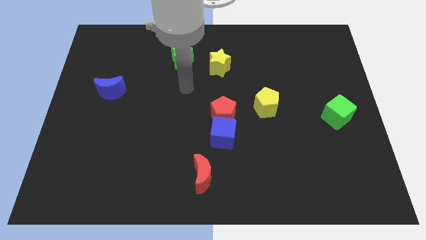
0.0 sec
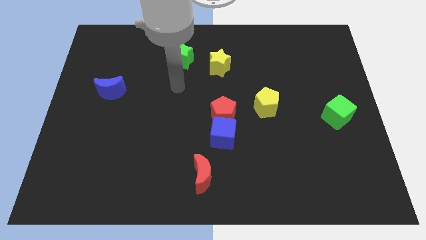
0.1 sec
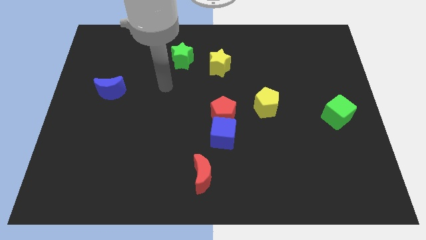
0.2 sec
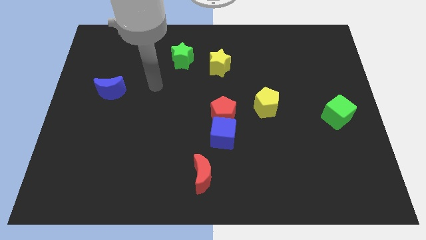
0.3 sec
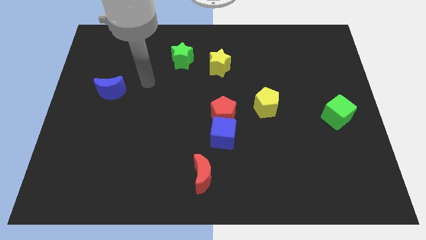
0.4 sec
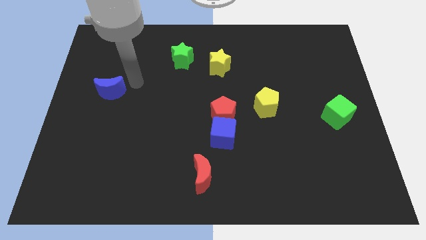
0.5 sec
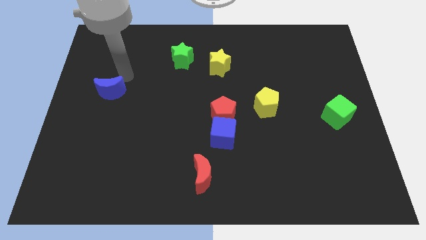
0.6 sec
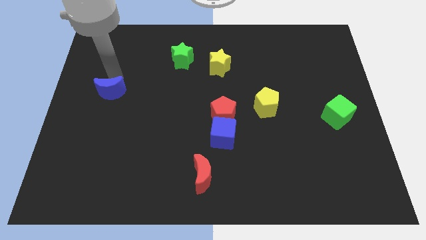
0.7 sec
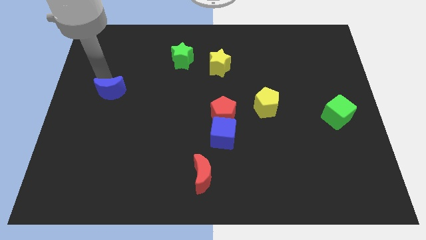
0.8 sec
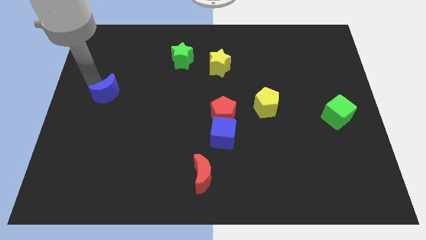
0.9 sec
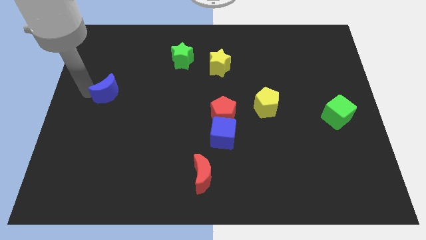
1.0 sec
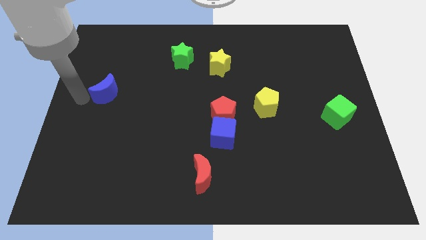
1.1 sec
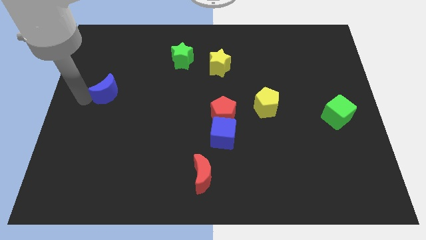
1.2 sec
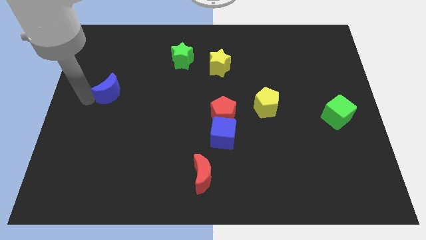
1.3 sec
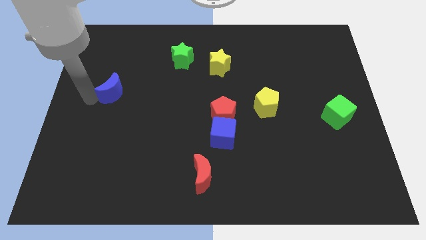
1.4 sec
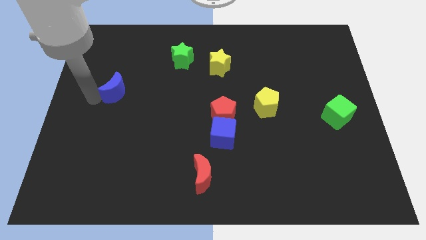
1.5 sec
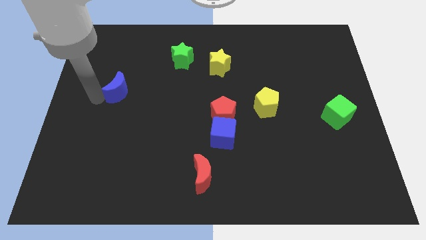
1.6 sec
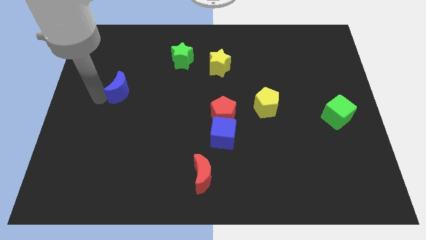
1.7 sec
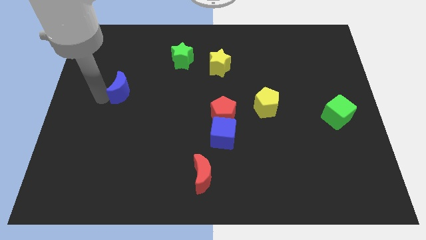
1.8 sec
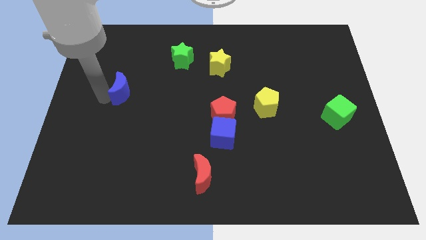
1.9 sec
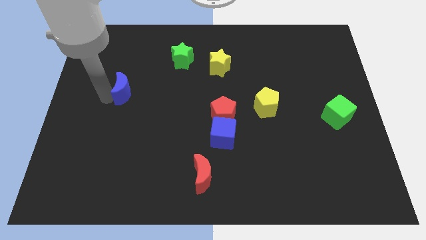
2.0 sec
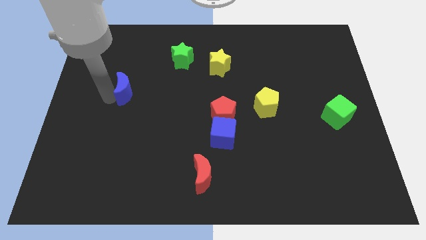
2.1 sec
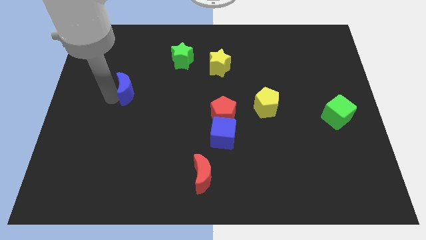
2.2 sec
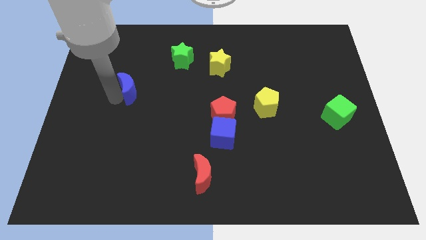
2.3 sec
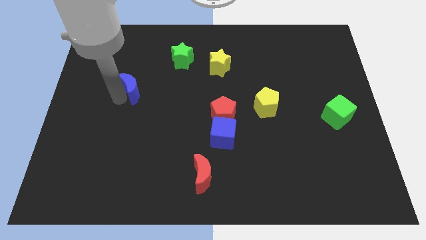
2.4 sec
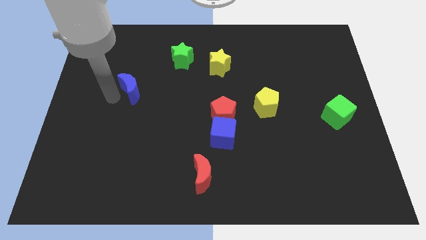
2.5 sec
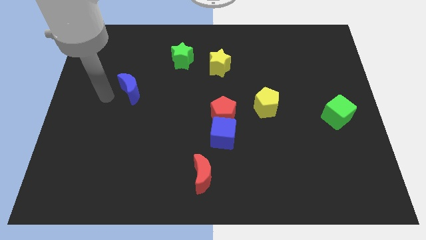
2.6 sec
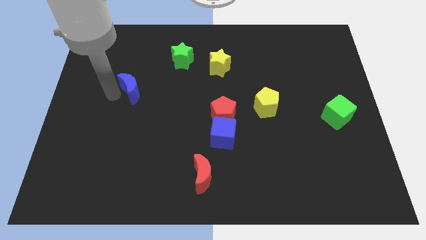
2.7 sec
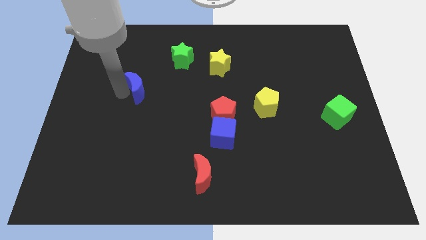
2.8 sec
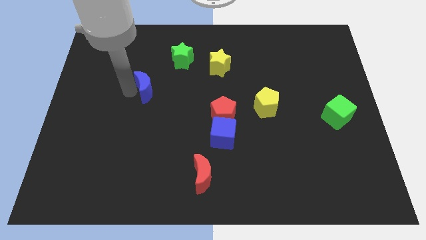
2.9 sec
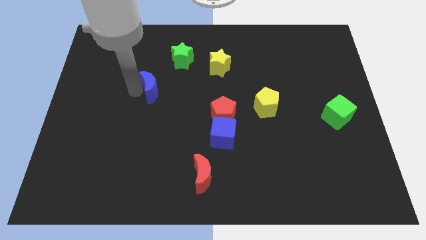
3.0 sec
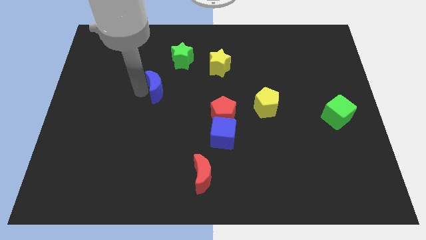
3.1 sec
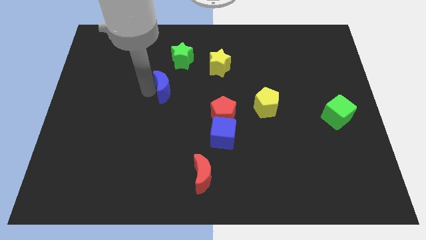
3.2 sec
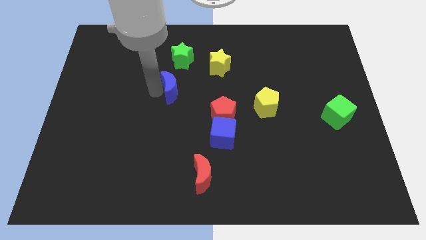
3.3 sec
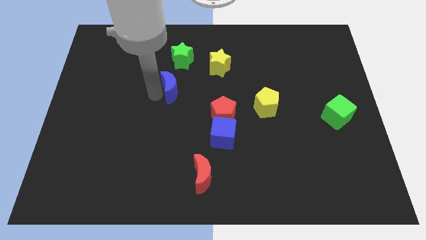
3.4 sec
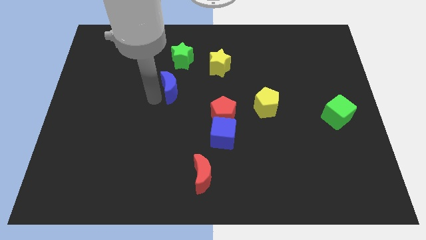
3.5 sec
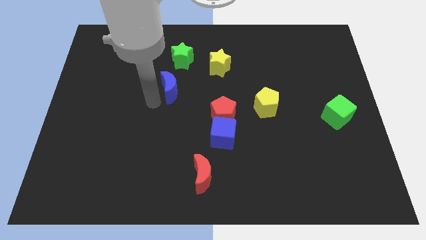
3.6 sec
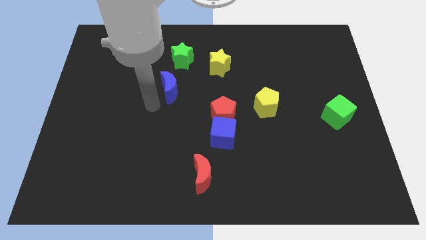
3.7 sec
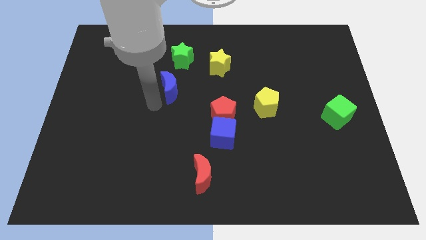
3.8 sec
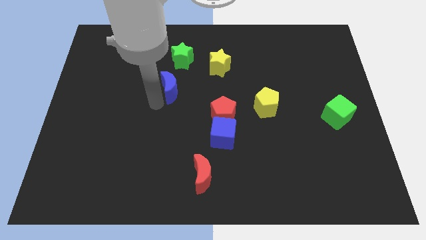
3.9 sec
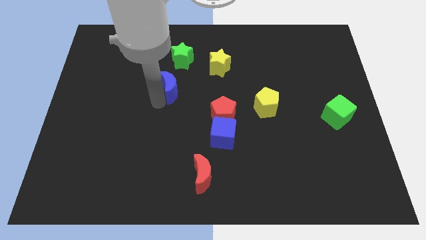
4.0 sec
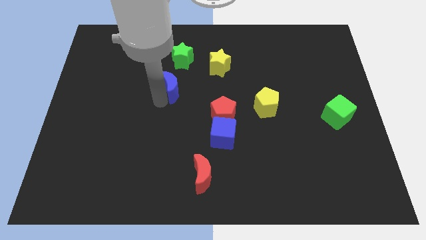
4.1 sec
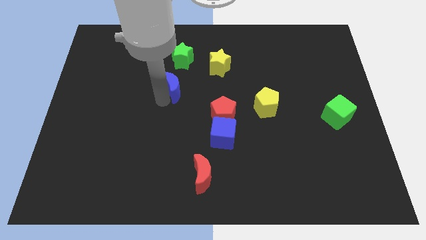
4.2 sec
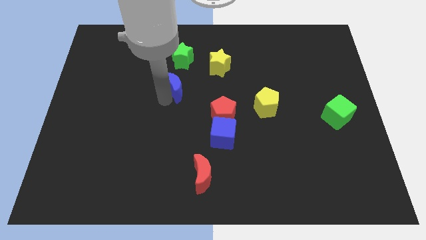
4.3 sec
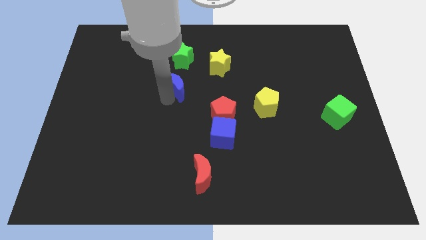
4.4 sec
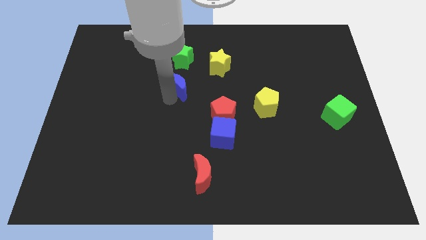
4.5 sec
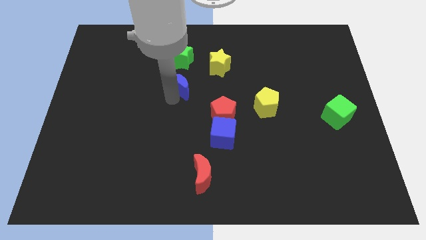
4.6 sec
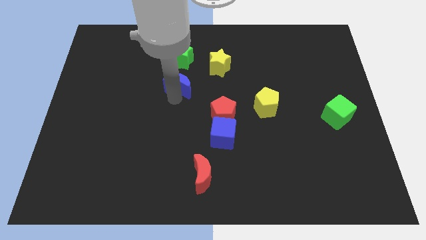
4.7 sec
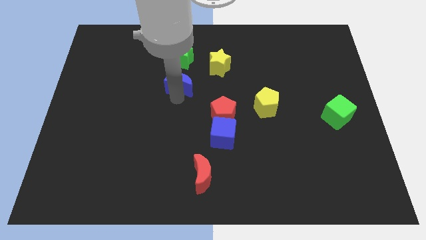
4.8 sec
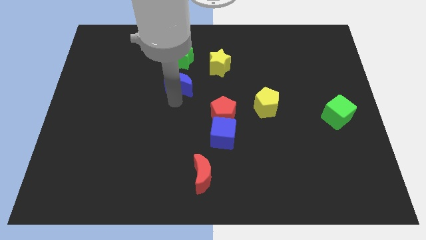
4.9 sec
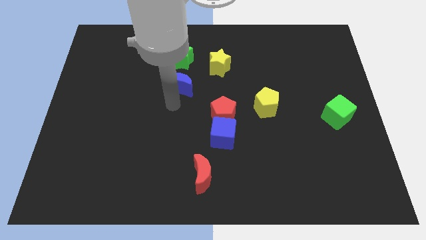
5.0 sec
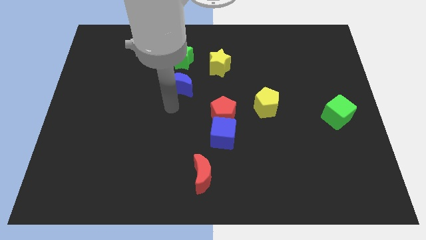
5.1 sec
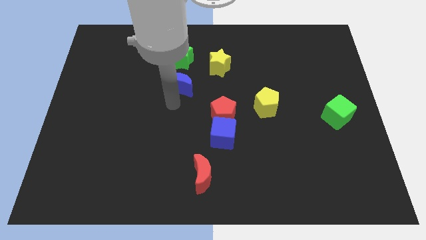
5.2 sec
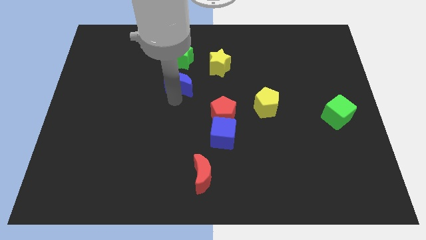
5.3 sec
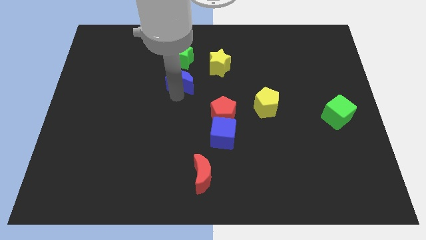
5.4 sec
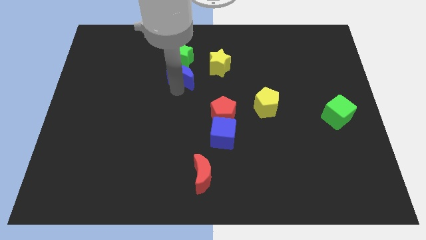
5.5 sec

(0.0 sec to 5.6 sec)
put the blue moon to the bottom right side of the green star

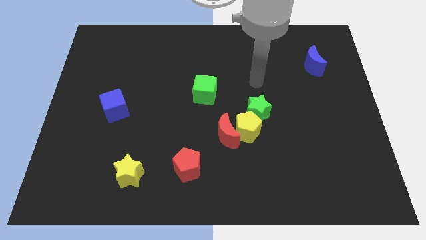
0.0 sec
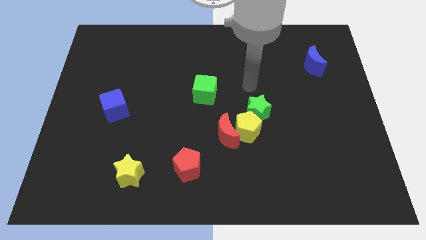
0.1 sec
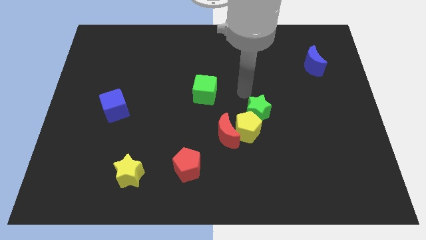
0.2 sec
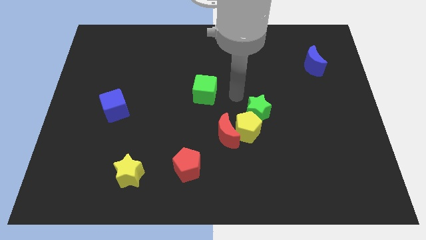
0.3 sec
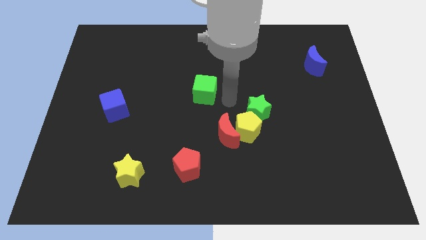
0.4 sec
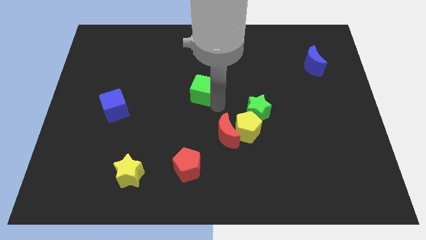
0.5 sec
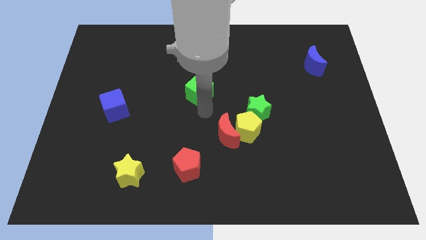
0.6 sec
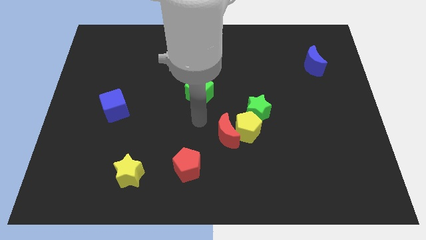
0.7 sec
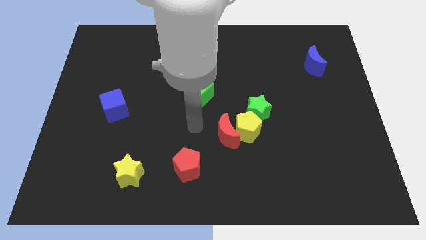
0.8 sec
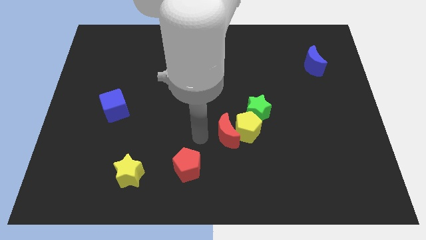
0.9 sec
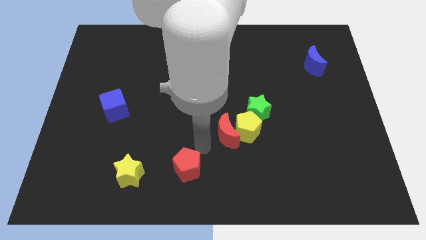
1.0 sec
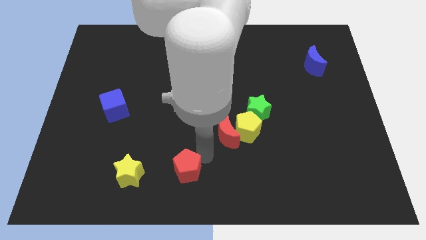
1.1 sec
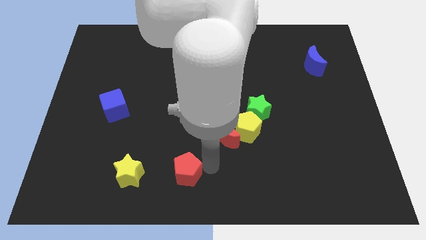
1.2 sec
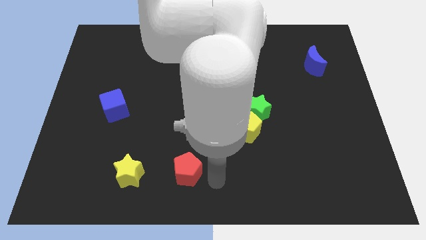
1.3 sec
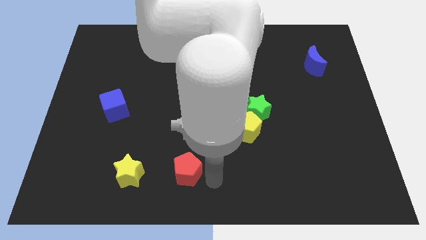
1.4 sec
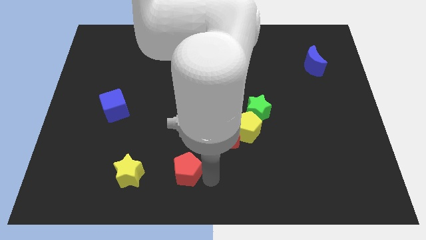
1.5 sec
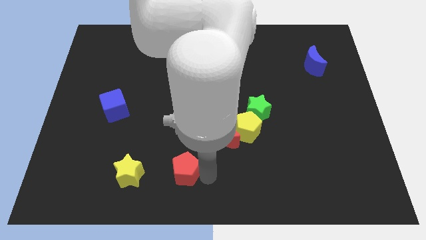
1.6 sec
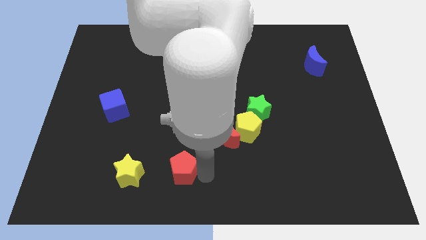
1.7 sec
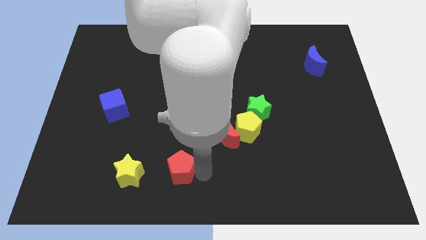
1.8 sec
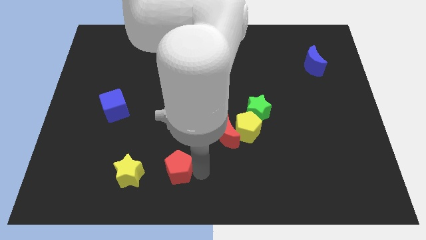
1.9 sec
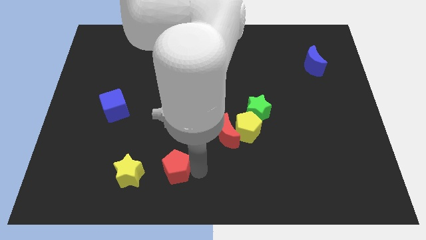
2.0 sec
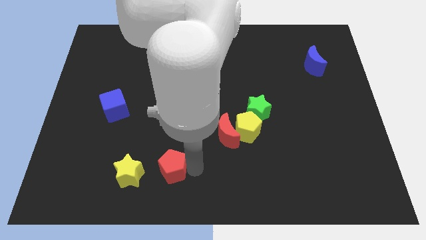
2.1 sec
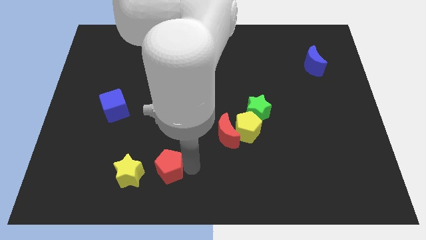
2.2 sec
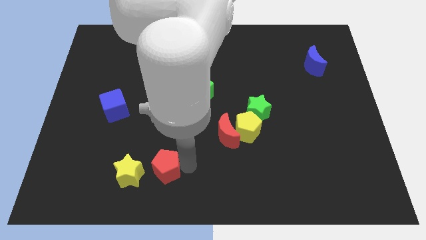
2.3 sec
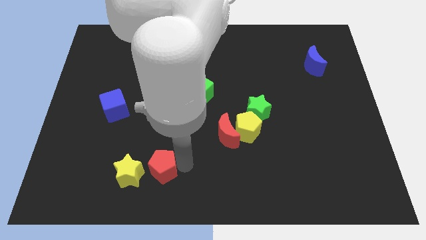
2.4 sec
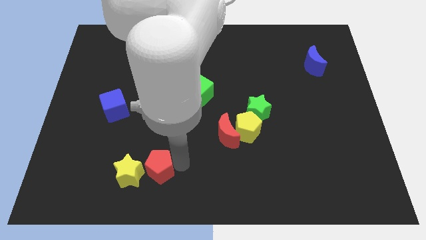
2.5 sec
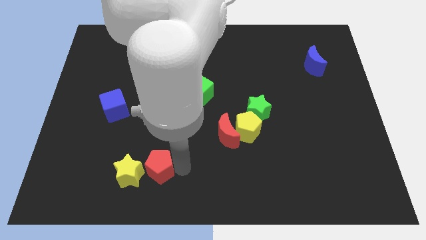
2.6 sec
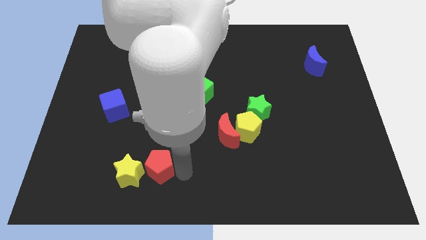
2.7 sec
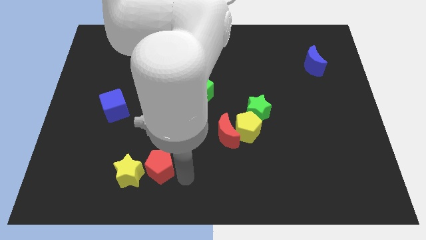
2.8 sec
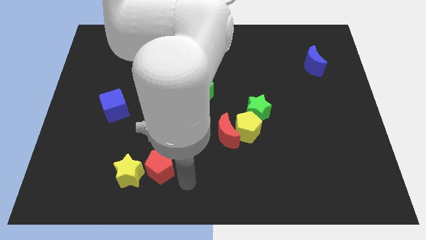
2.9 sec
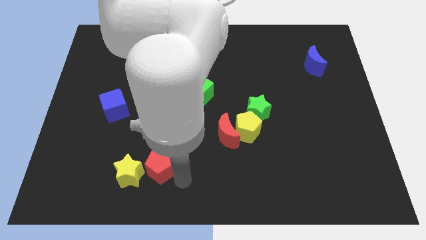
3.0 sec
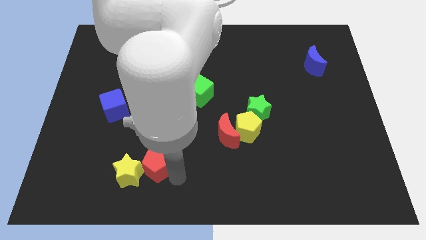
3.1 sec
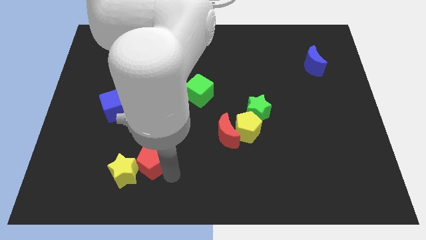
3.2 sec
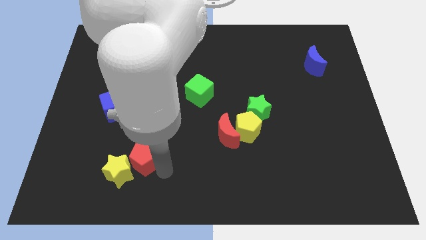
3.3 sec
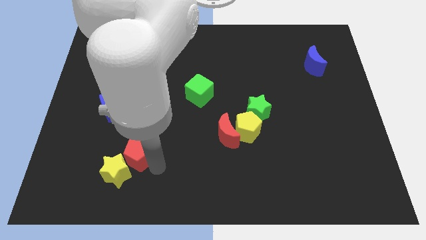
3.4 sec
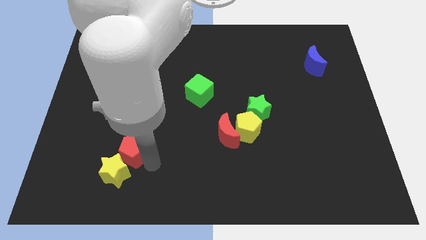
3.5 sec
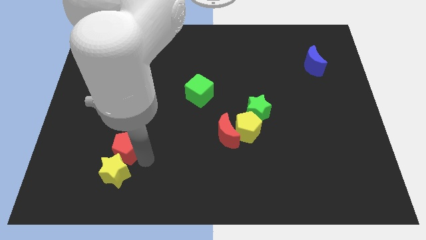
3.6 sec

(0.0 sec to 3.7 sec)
slide the red pentagon below the blue cube
